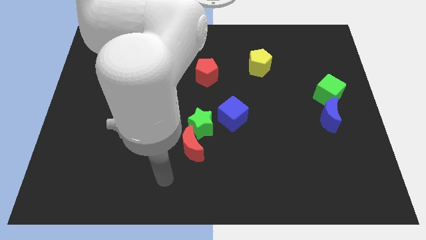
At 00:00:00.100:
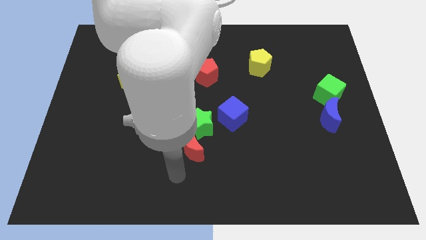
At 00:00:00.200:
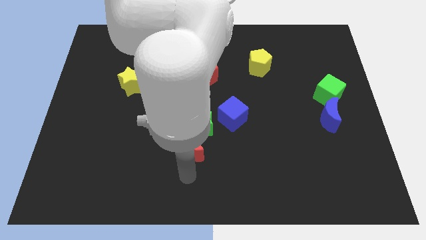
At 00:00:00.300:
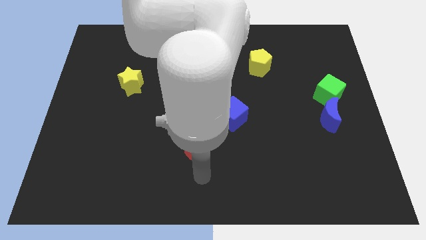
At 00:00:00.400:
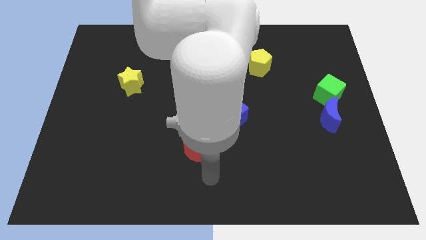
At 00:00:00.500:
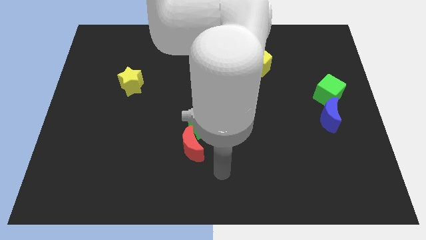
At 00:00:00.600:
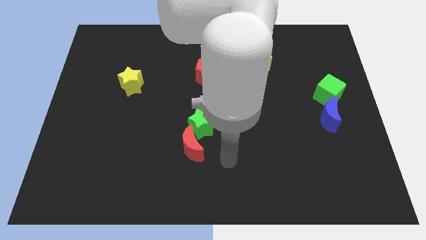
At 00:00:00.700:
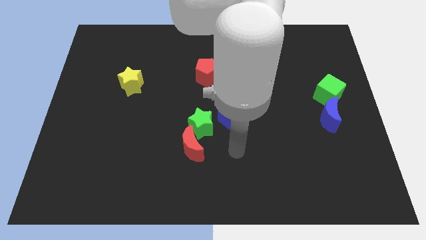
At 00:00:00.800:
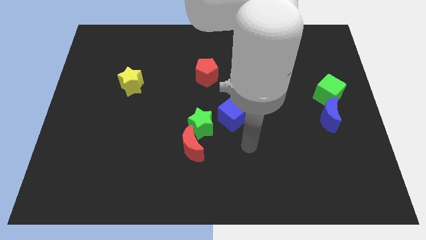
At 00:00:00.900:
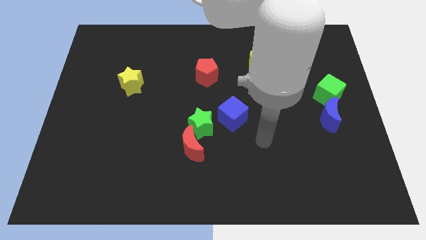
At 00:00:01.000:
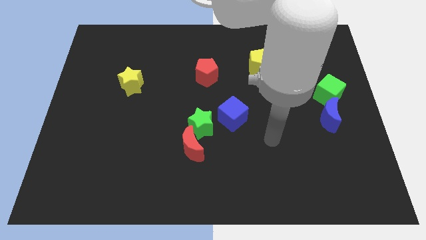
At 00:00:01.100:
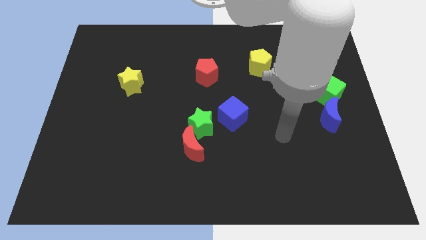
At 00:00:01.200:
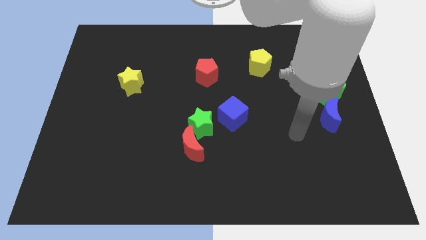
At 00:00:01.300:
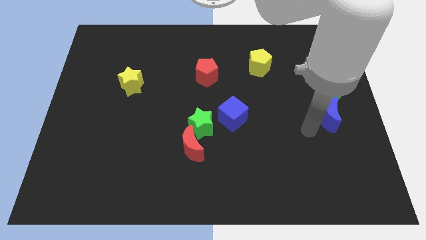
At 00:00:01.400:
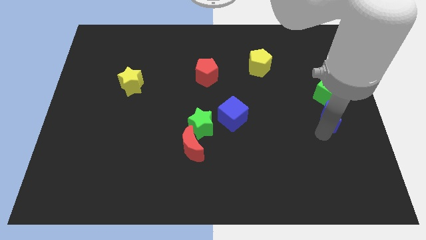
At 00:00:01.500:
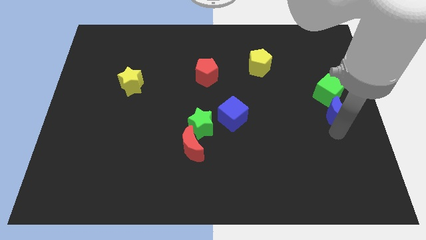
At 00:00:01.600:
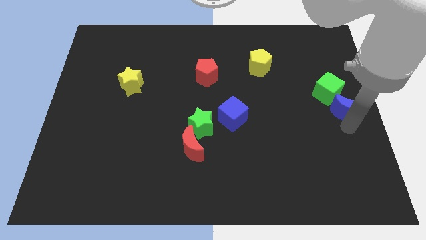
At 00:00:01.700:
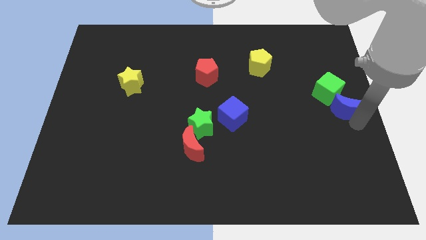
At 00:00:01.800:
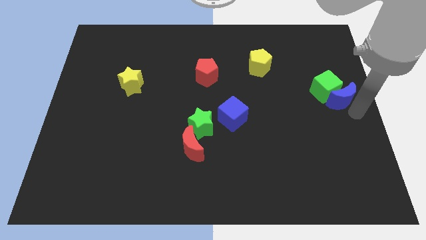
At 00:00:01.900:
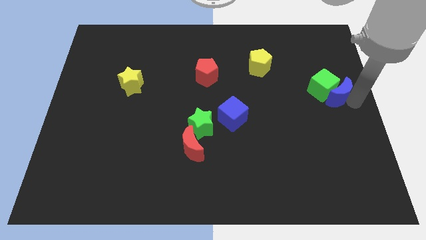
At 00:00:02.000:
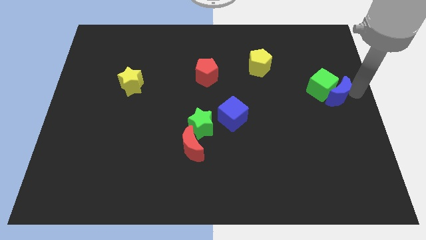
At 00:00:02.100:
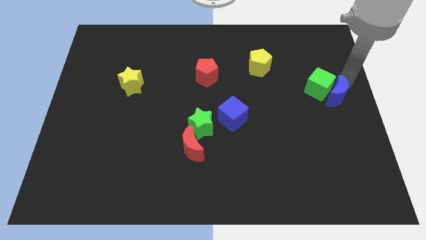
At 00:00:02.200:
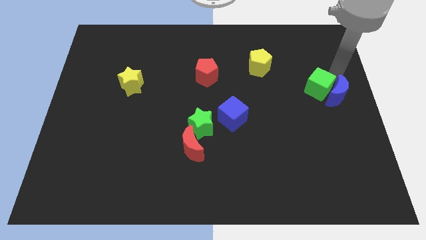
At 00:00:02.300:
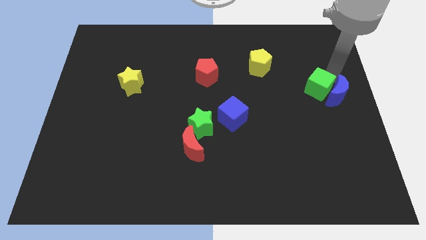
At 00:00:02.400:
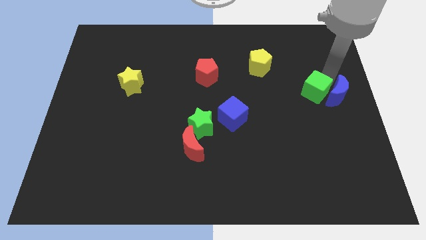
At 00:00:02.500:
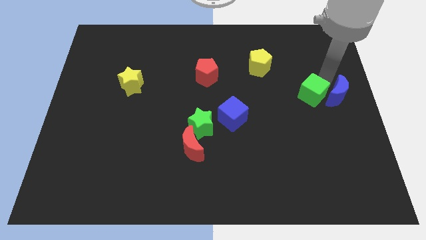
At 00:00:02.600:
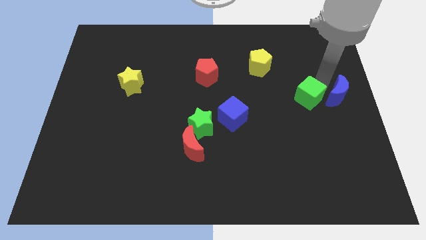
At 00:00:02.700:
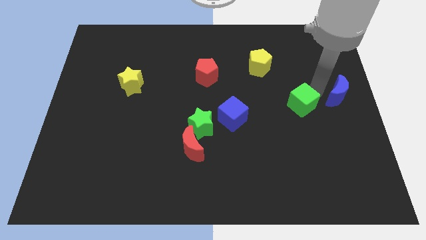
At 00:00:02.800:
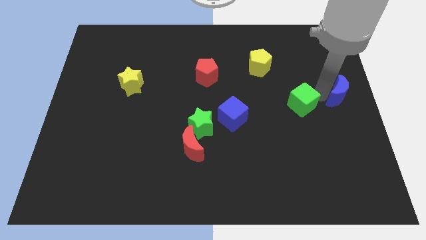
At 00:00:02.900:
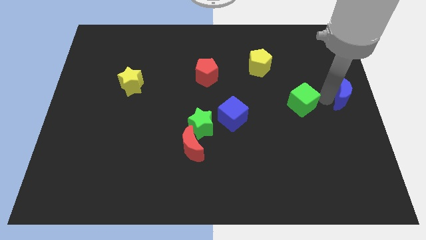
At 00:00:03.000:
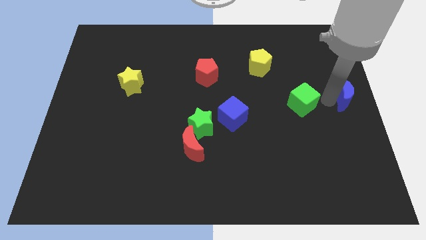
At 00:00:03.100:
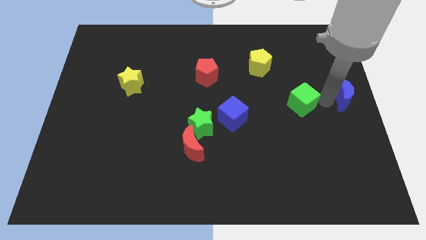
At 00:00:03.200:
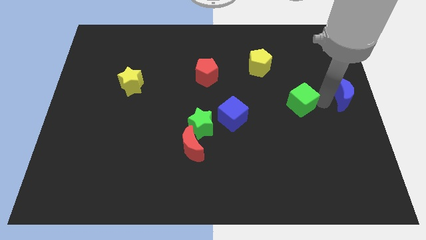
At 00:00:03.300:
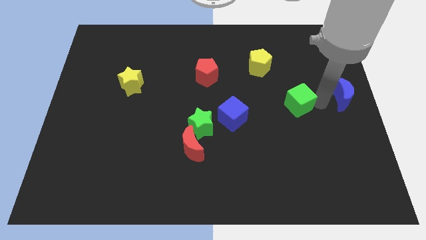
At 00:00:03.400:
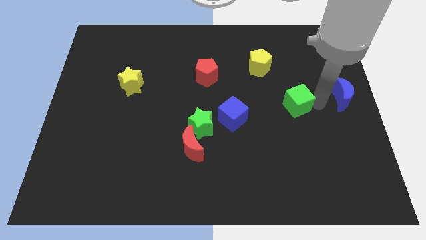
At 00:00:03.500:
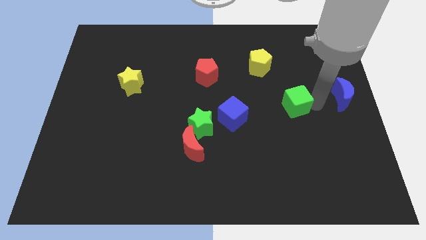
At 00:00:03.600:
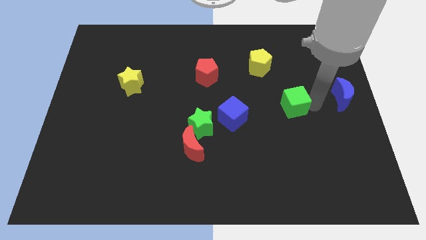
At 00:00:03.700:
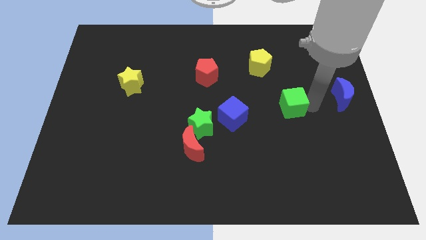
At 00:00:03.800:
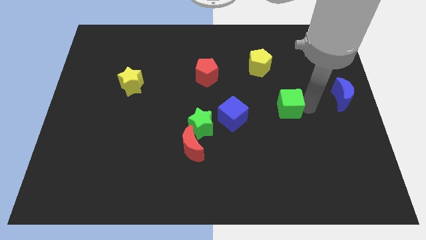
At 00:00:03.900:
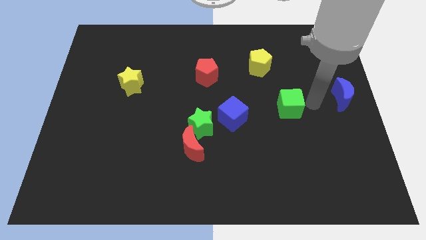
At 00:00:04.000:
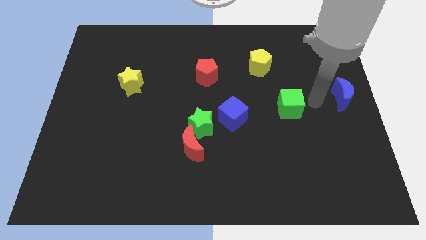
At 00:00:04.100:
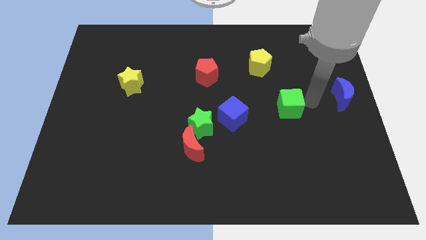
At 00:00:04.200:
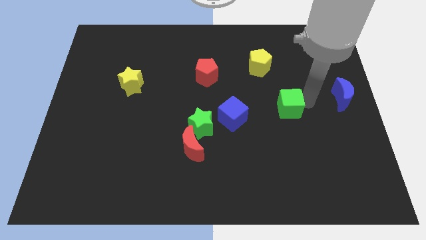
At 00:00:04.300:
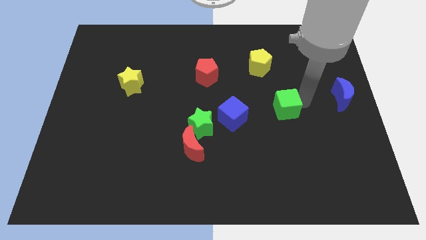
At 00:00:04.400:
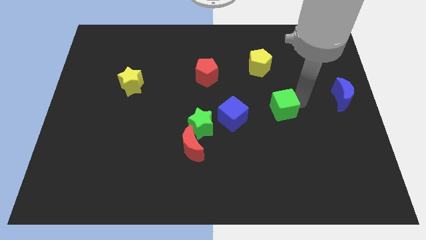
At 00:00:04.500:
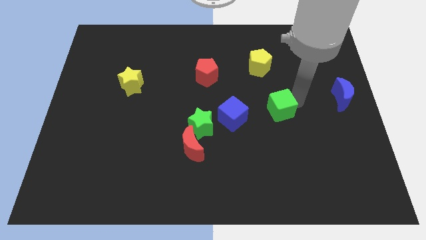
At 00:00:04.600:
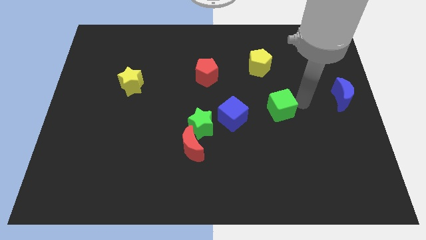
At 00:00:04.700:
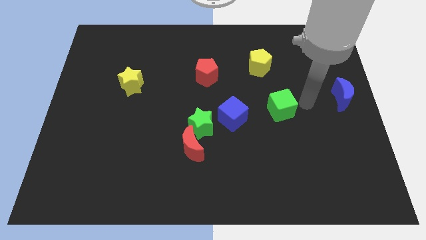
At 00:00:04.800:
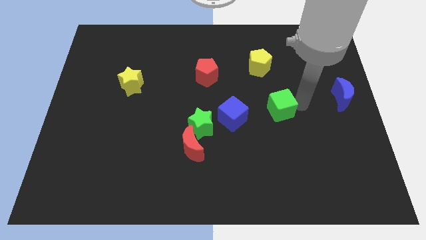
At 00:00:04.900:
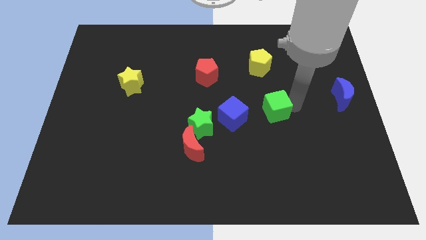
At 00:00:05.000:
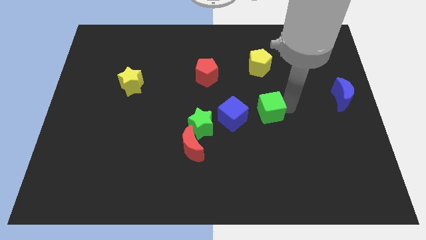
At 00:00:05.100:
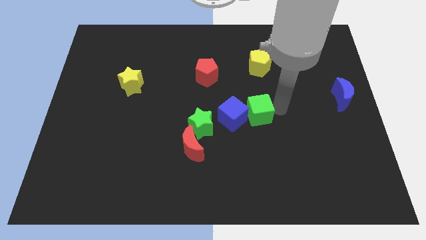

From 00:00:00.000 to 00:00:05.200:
put the green cube close to the blue cube

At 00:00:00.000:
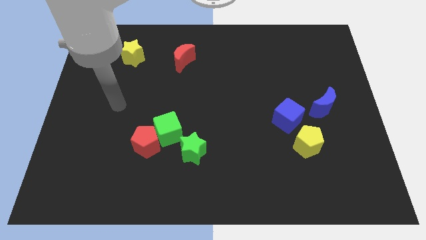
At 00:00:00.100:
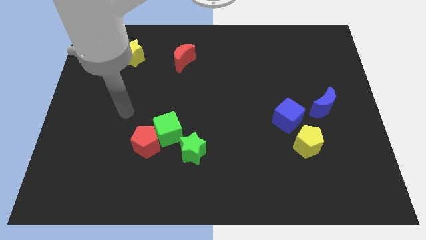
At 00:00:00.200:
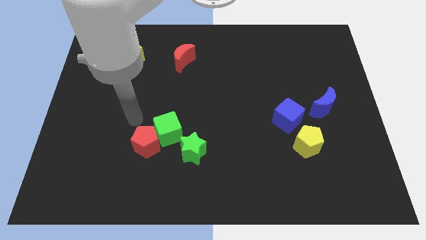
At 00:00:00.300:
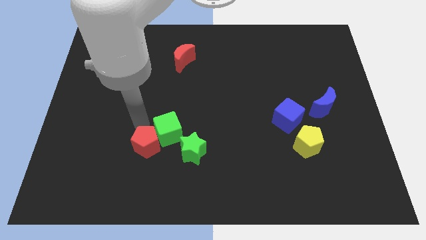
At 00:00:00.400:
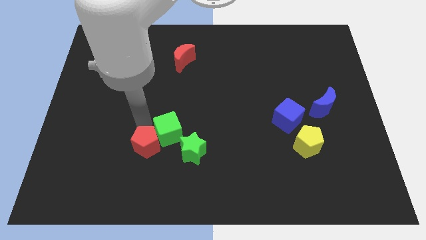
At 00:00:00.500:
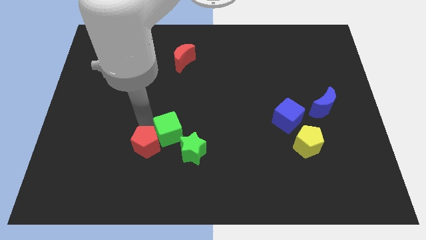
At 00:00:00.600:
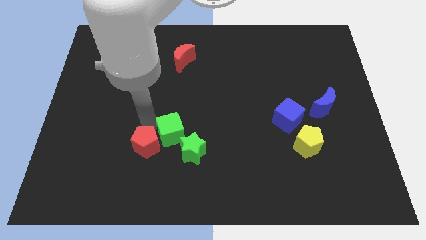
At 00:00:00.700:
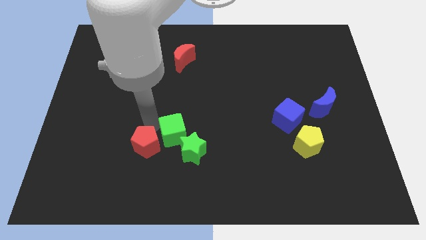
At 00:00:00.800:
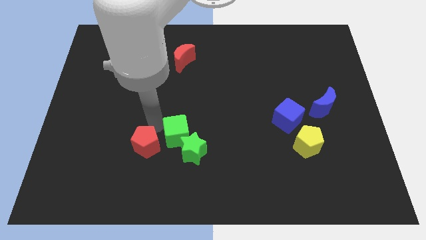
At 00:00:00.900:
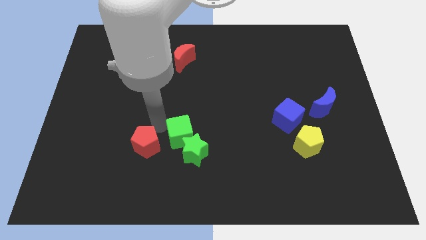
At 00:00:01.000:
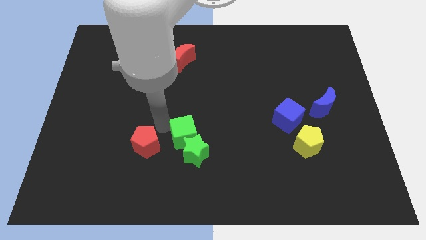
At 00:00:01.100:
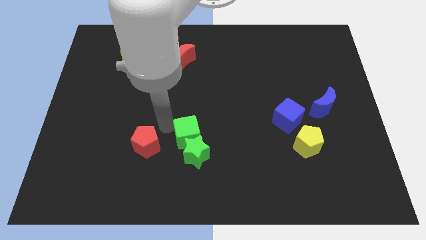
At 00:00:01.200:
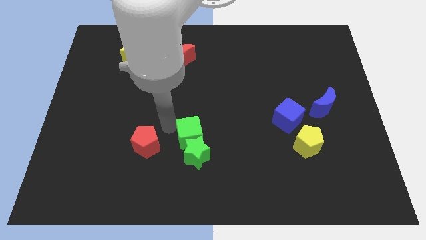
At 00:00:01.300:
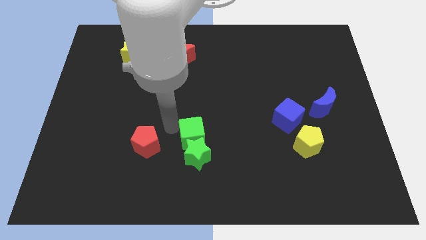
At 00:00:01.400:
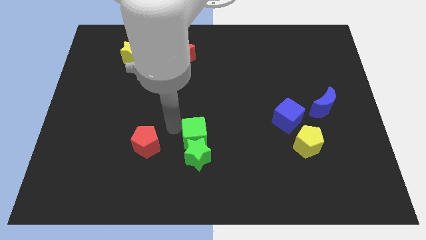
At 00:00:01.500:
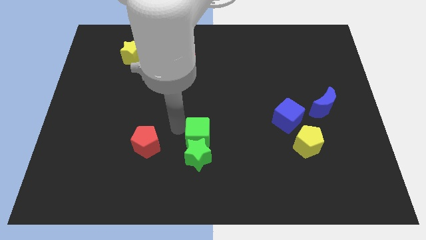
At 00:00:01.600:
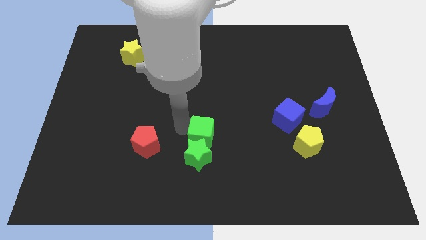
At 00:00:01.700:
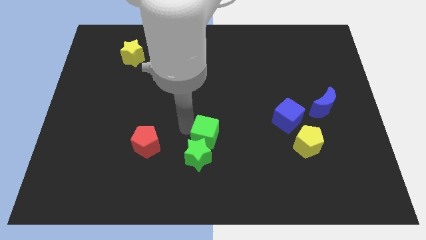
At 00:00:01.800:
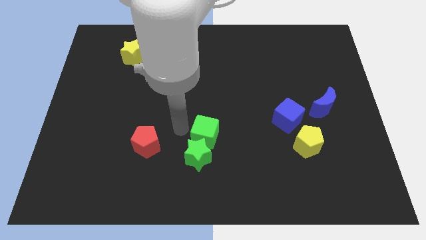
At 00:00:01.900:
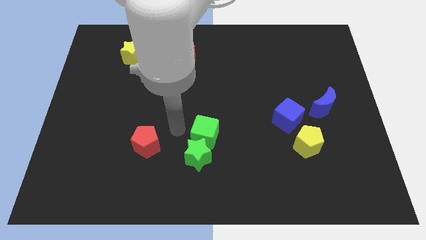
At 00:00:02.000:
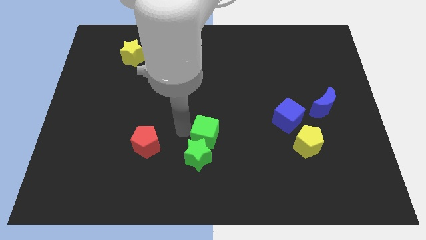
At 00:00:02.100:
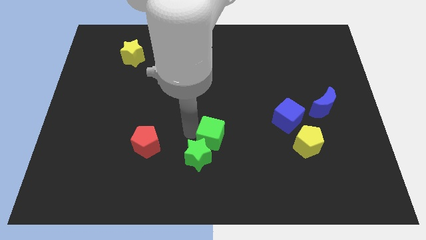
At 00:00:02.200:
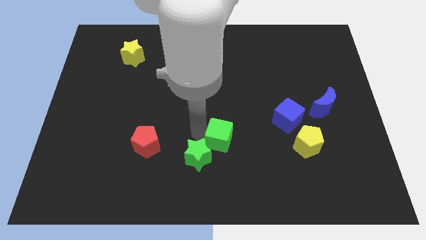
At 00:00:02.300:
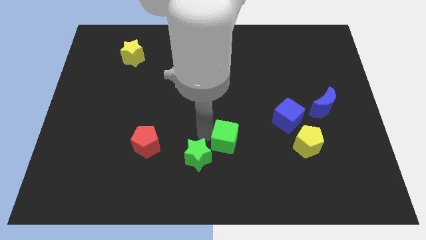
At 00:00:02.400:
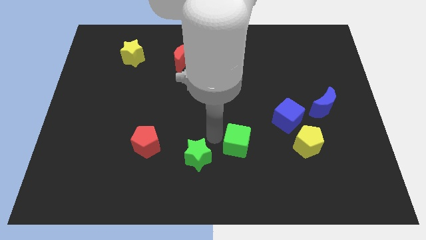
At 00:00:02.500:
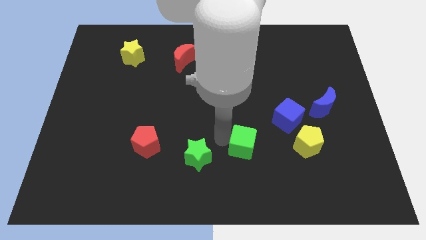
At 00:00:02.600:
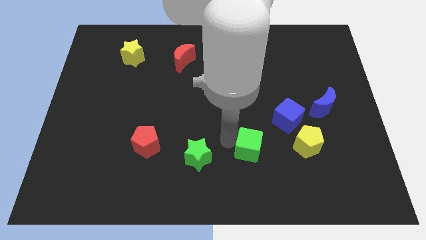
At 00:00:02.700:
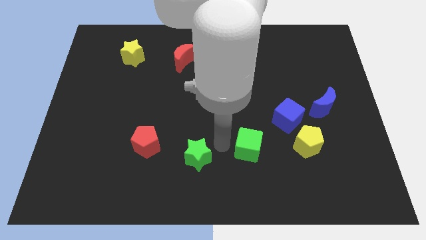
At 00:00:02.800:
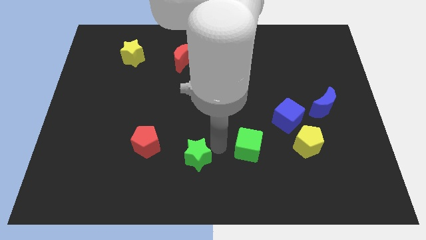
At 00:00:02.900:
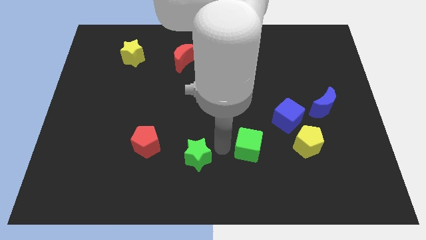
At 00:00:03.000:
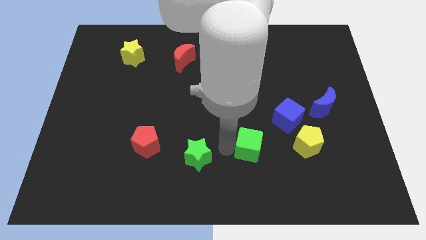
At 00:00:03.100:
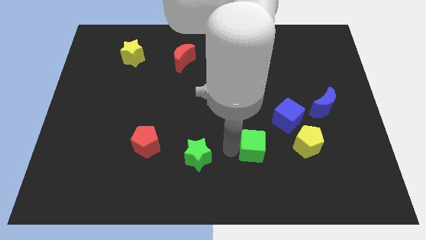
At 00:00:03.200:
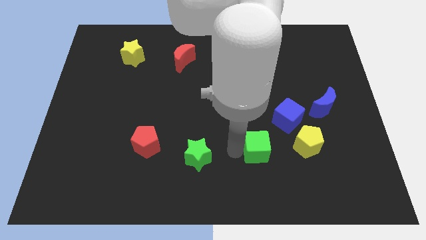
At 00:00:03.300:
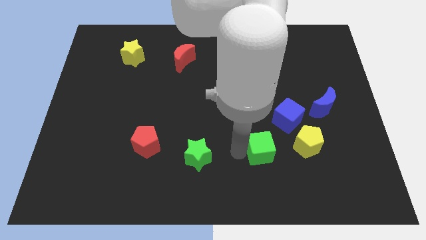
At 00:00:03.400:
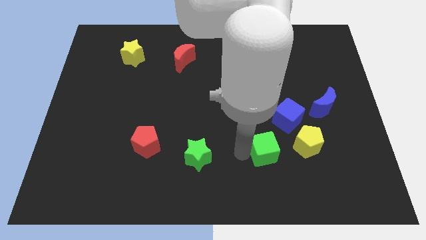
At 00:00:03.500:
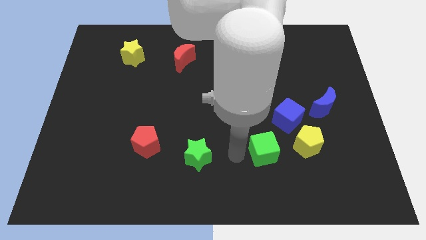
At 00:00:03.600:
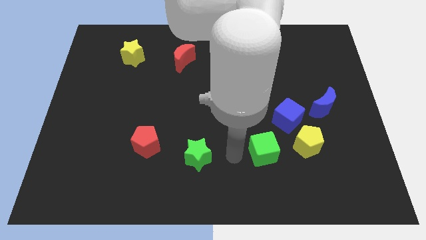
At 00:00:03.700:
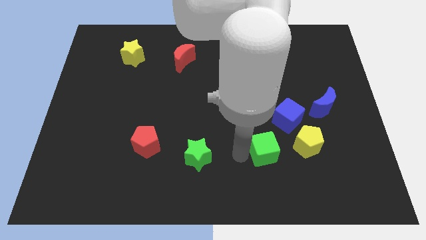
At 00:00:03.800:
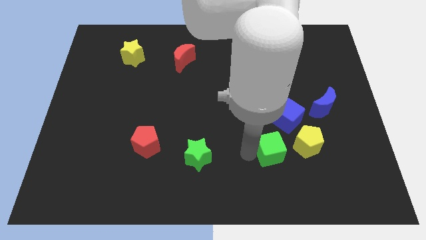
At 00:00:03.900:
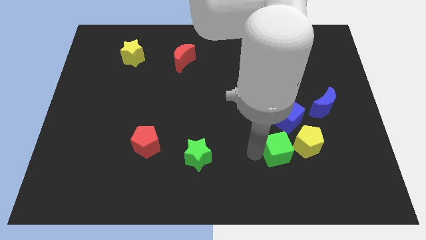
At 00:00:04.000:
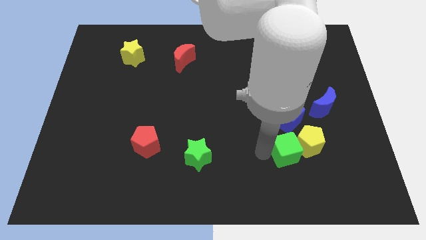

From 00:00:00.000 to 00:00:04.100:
move the green cube close to the yellow pentagon
